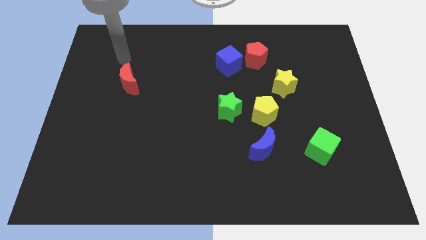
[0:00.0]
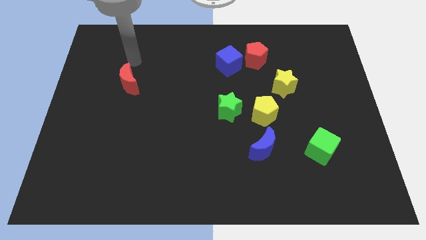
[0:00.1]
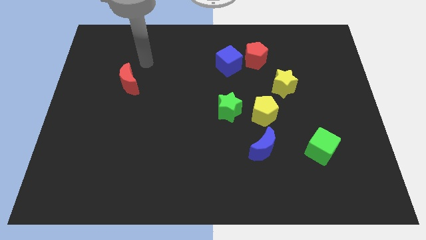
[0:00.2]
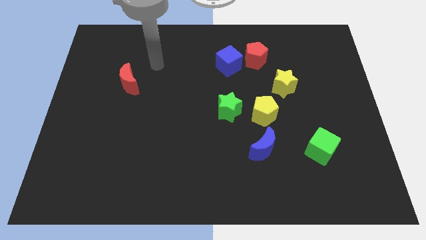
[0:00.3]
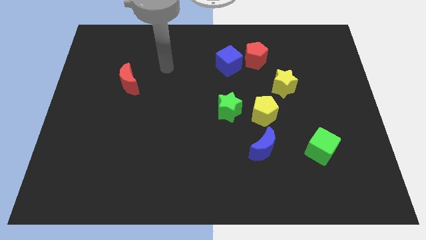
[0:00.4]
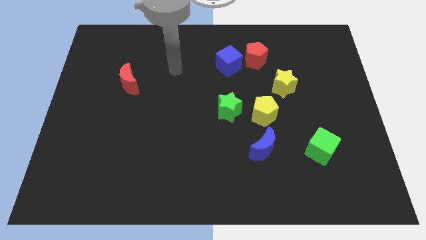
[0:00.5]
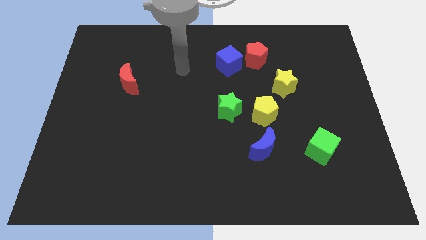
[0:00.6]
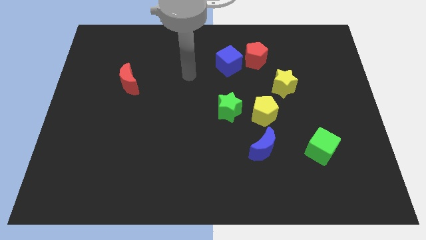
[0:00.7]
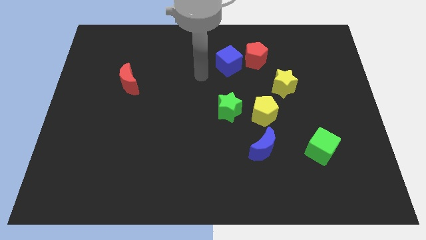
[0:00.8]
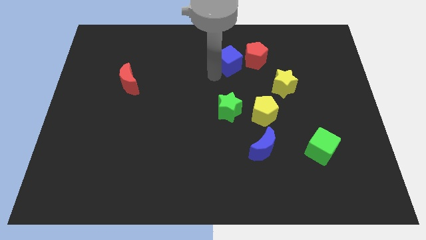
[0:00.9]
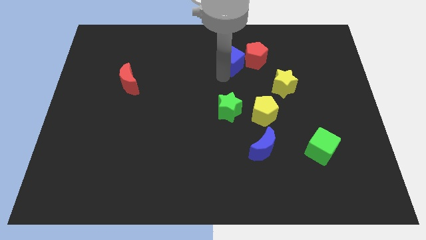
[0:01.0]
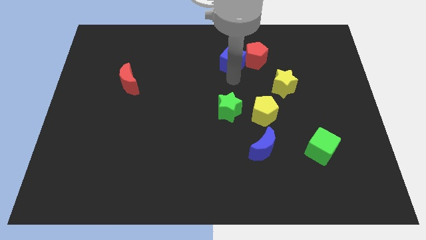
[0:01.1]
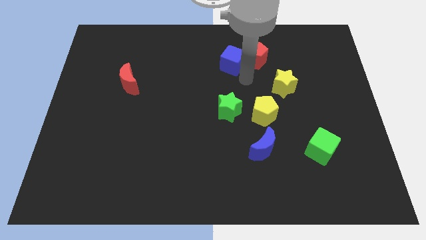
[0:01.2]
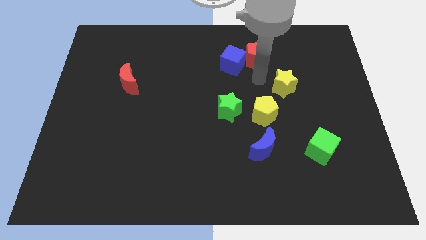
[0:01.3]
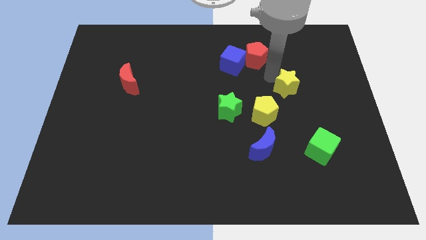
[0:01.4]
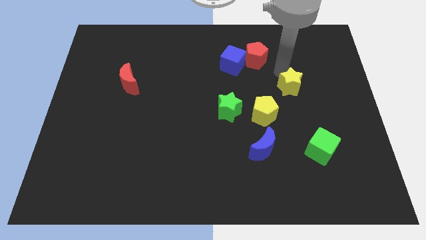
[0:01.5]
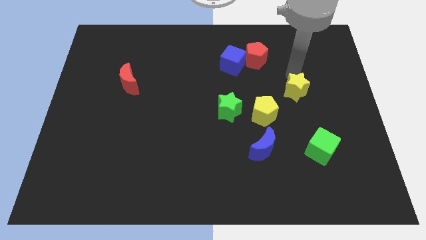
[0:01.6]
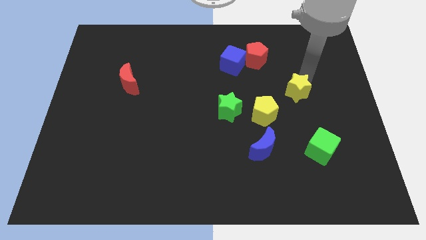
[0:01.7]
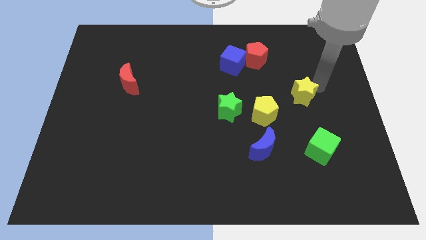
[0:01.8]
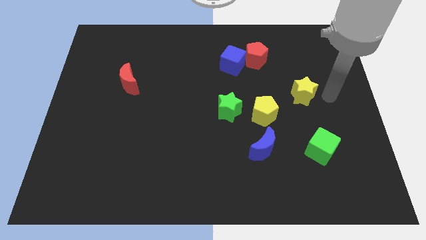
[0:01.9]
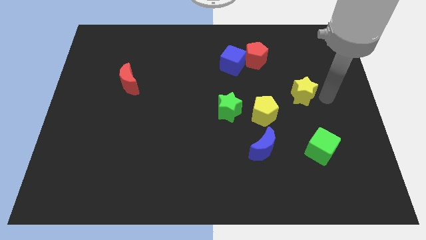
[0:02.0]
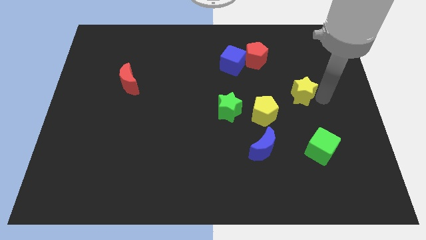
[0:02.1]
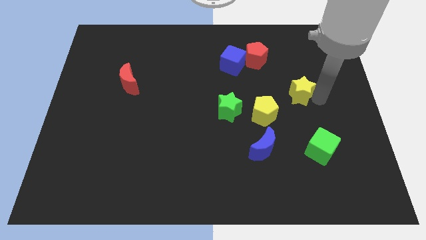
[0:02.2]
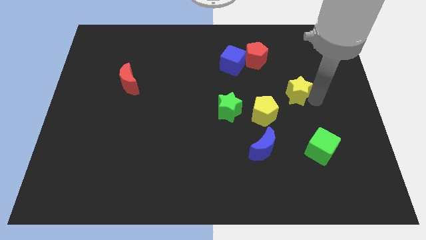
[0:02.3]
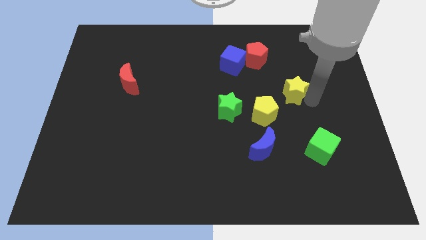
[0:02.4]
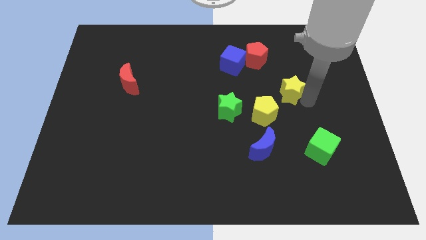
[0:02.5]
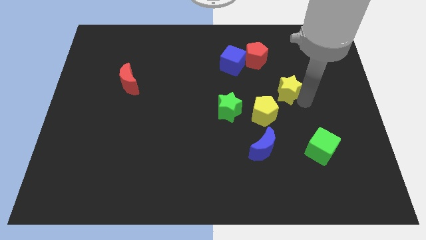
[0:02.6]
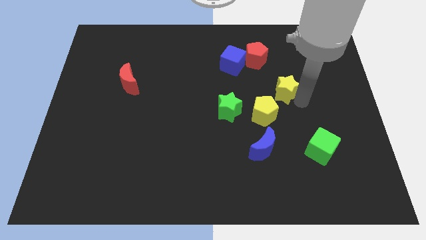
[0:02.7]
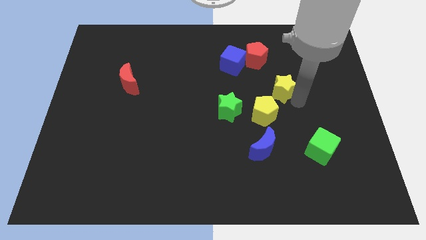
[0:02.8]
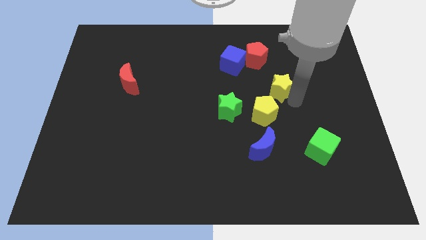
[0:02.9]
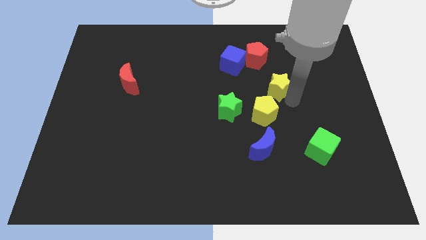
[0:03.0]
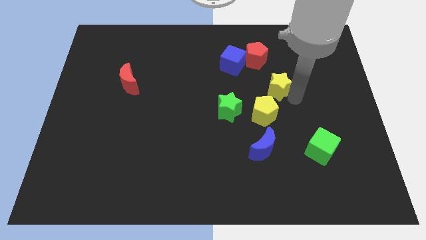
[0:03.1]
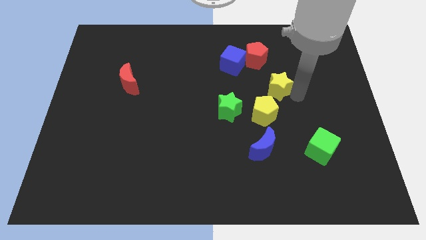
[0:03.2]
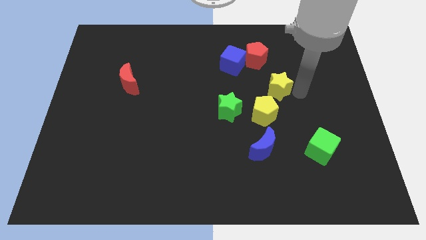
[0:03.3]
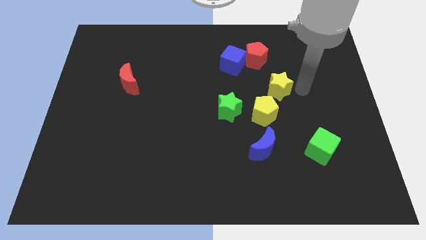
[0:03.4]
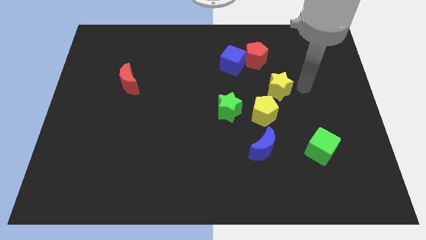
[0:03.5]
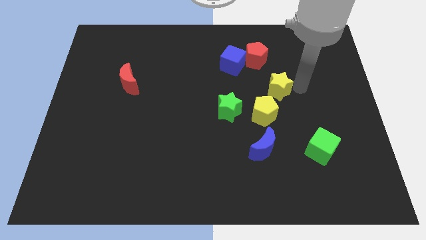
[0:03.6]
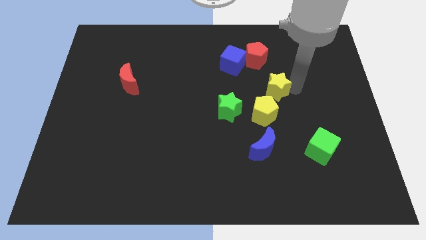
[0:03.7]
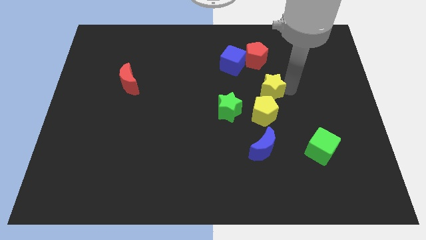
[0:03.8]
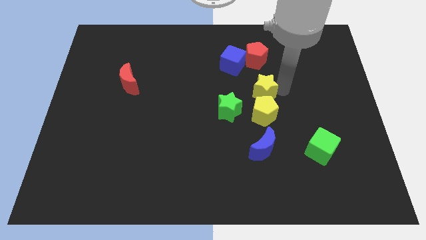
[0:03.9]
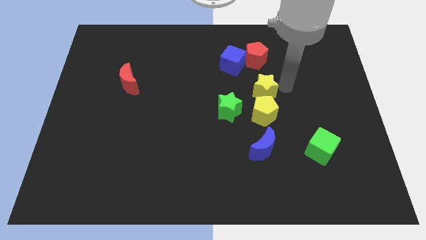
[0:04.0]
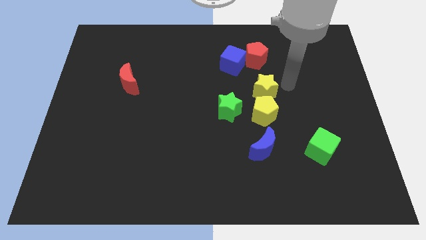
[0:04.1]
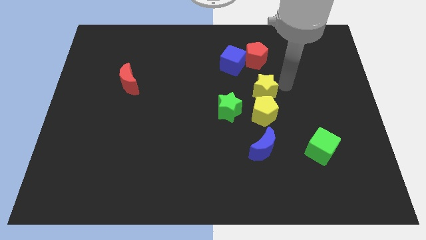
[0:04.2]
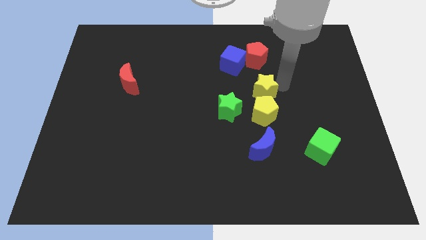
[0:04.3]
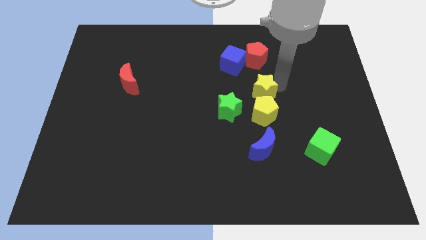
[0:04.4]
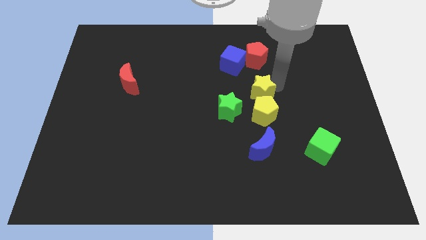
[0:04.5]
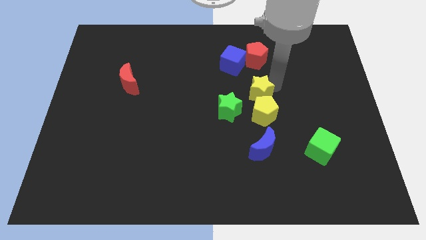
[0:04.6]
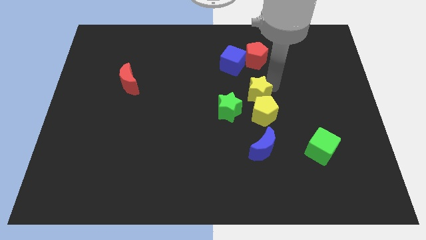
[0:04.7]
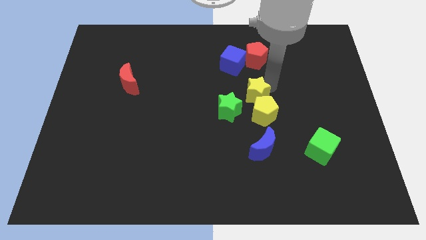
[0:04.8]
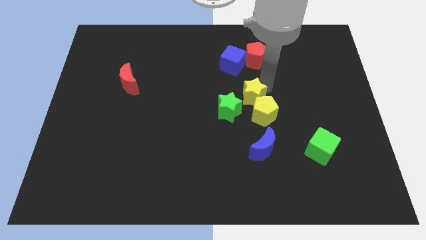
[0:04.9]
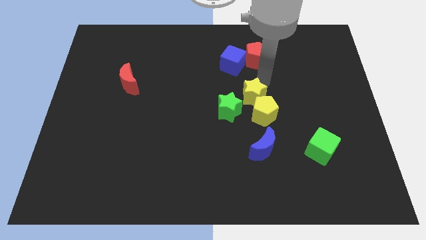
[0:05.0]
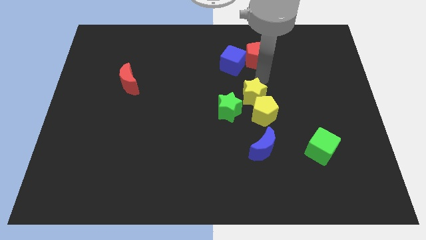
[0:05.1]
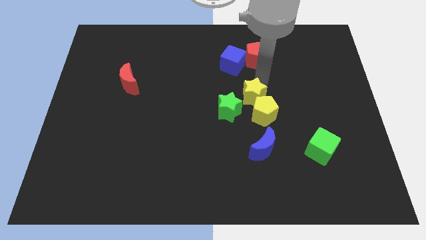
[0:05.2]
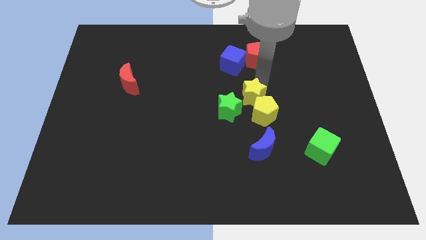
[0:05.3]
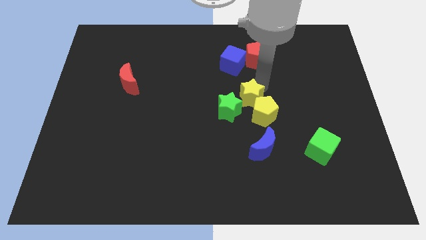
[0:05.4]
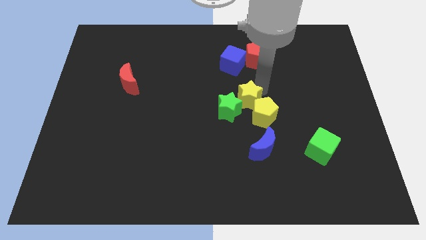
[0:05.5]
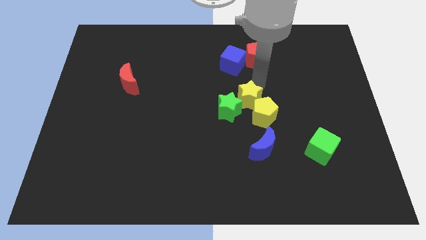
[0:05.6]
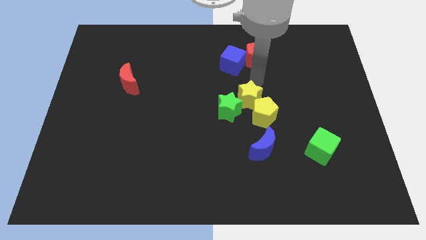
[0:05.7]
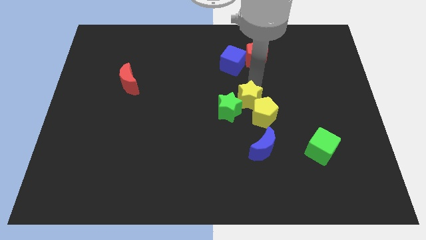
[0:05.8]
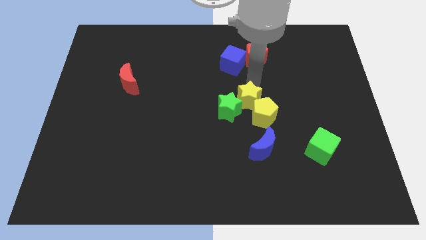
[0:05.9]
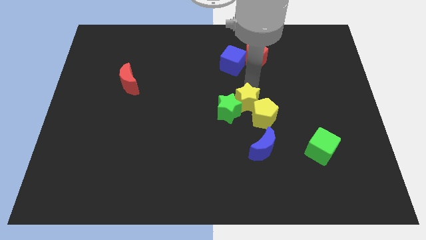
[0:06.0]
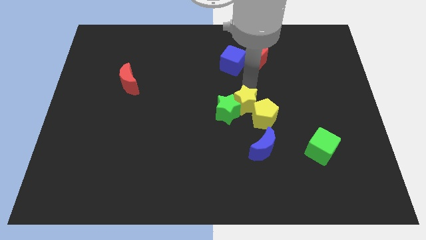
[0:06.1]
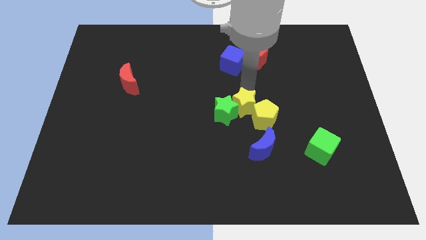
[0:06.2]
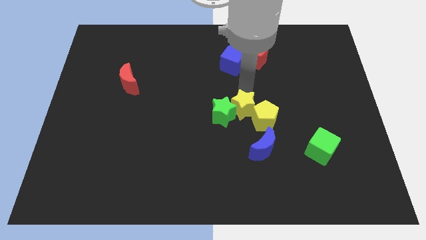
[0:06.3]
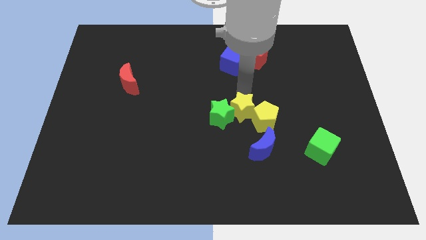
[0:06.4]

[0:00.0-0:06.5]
put the yellow star to the top left of the blue moon

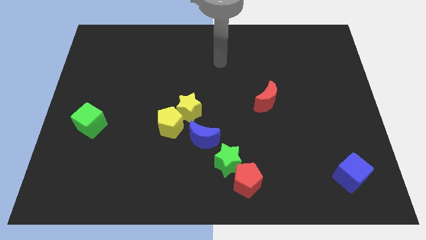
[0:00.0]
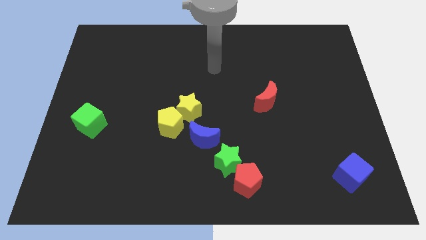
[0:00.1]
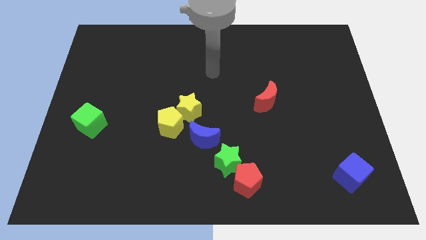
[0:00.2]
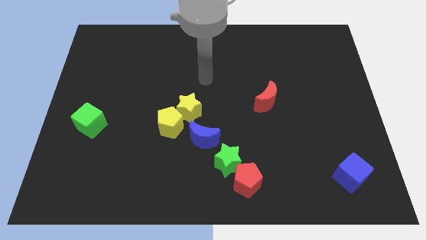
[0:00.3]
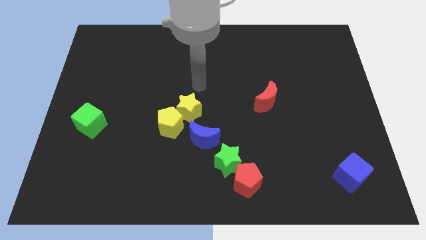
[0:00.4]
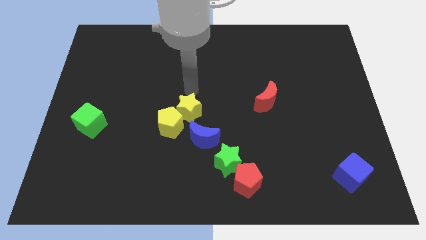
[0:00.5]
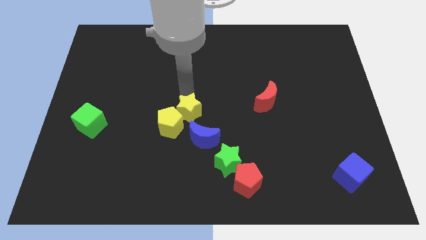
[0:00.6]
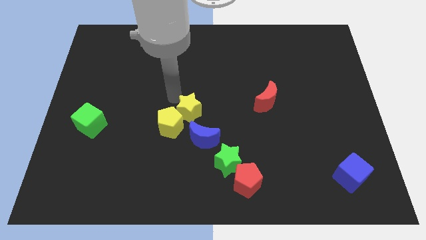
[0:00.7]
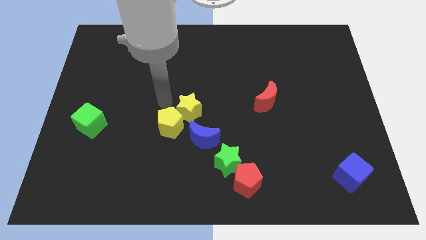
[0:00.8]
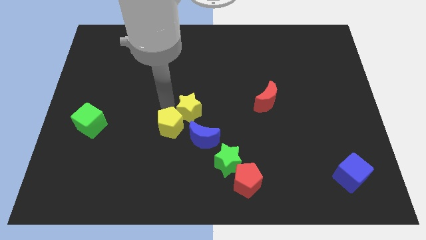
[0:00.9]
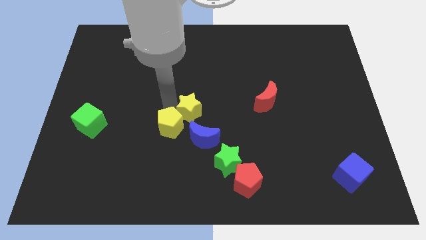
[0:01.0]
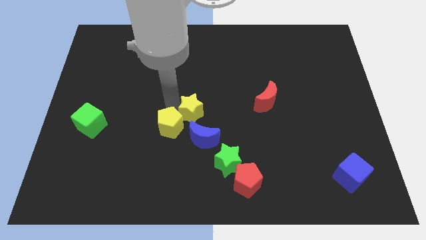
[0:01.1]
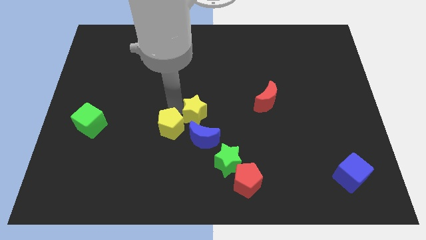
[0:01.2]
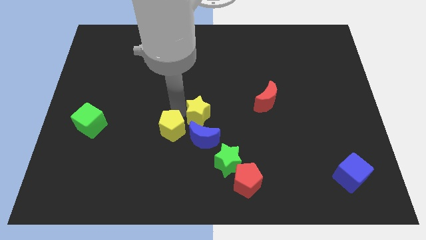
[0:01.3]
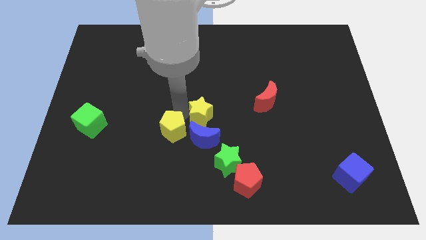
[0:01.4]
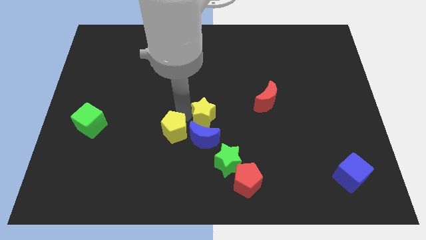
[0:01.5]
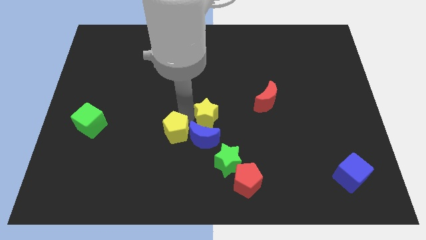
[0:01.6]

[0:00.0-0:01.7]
push the yellow star above the green star
